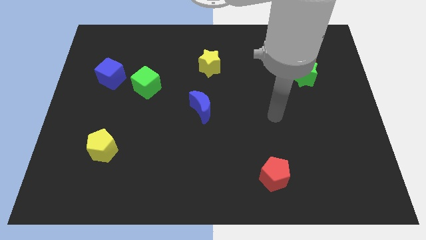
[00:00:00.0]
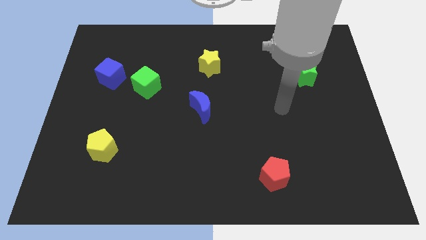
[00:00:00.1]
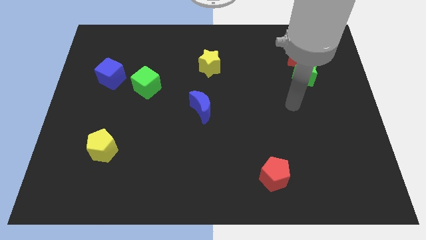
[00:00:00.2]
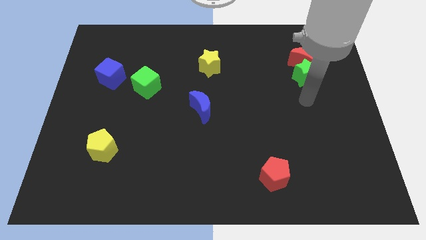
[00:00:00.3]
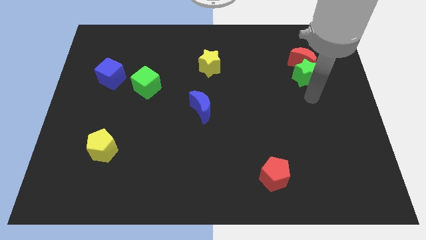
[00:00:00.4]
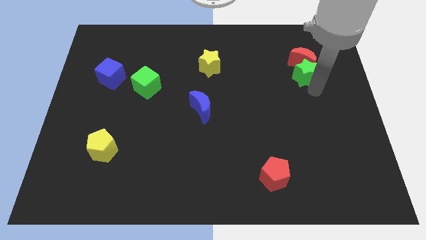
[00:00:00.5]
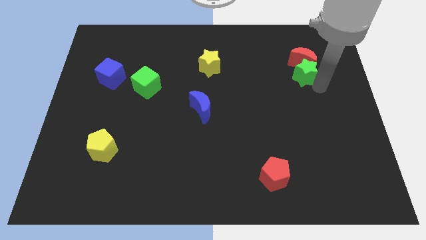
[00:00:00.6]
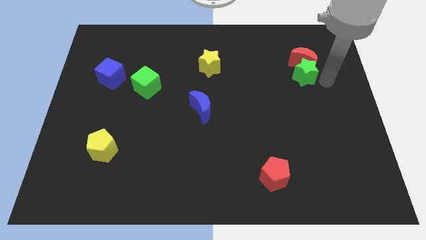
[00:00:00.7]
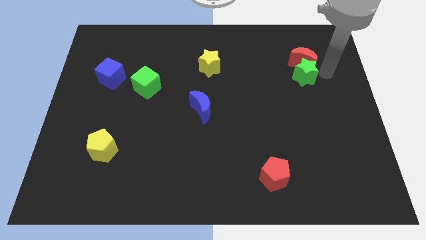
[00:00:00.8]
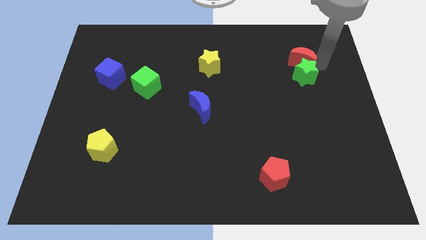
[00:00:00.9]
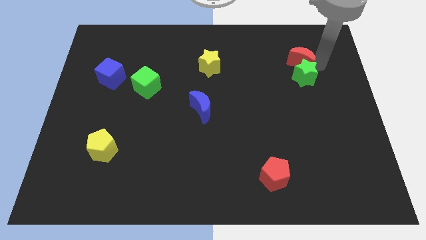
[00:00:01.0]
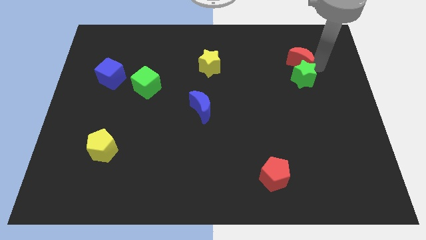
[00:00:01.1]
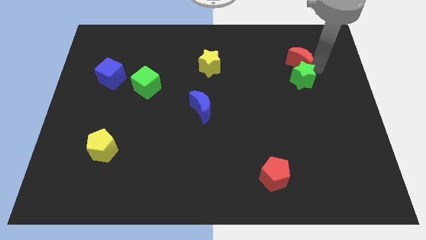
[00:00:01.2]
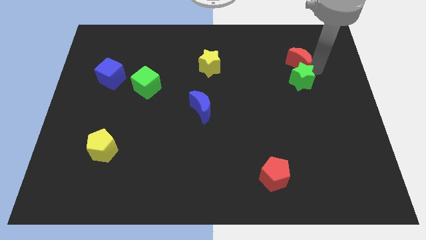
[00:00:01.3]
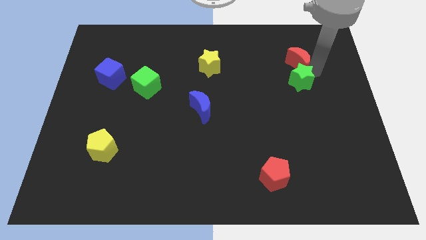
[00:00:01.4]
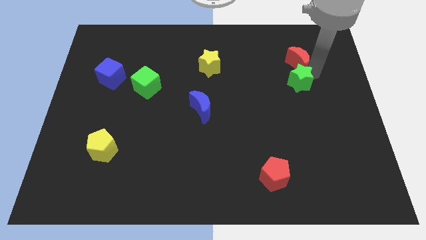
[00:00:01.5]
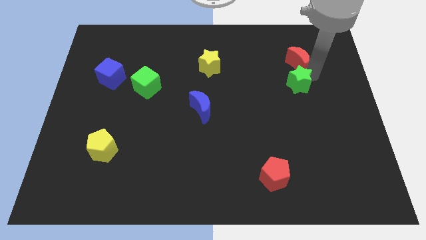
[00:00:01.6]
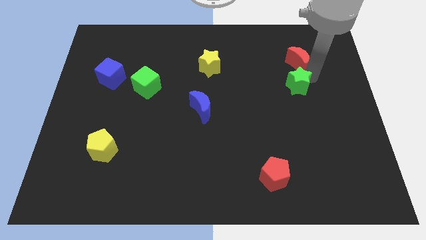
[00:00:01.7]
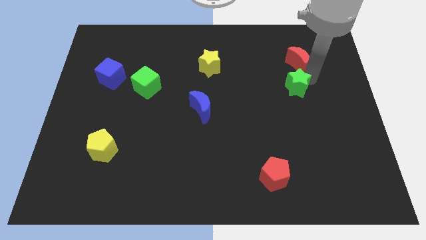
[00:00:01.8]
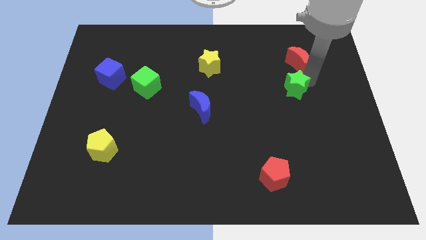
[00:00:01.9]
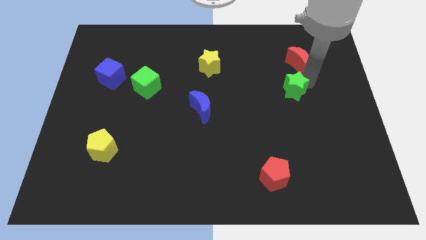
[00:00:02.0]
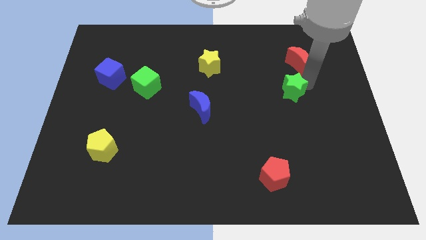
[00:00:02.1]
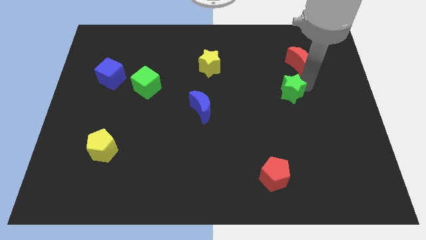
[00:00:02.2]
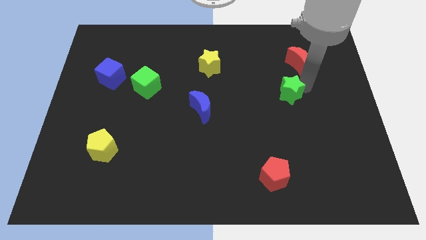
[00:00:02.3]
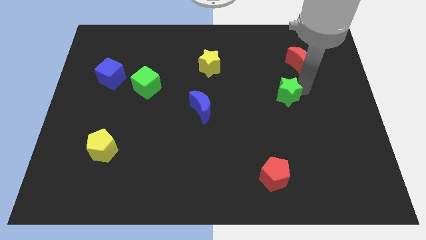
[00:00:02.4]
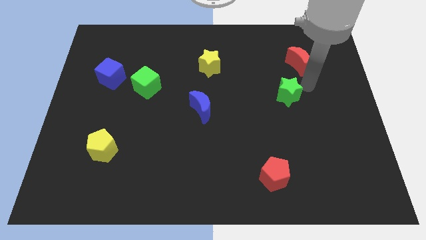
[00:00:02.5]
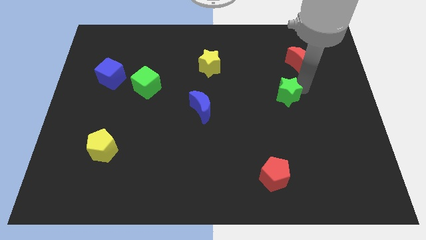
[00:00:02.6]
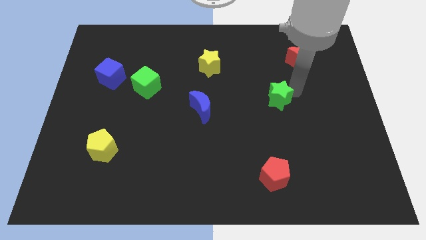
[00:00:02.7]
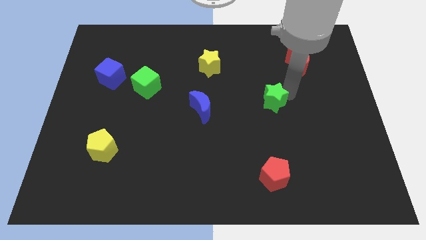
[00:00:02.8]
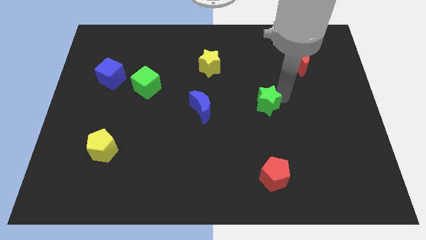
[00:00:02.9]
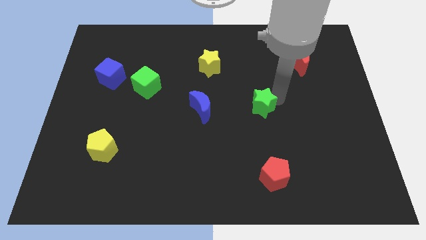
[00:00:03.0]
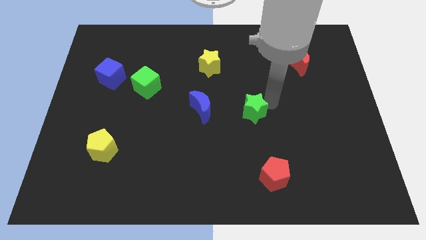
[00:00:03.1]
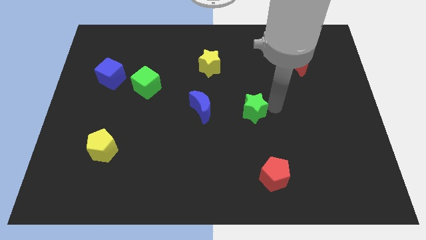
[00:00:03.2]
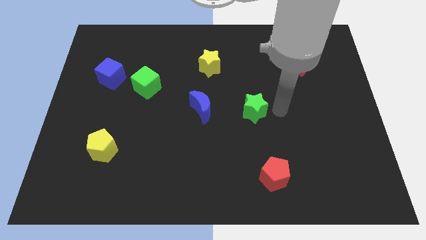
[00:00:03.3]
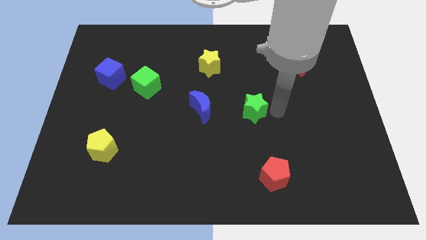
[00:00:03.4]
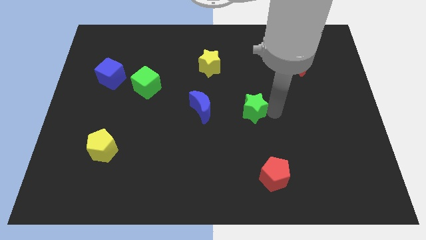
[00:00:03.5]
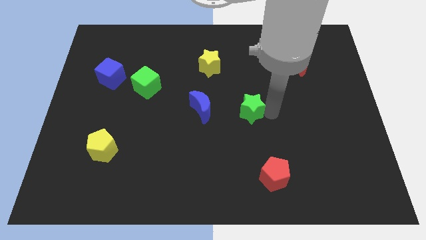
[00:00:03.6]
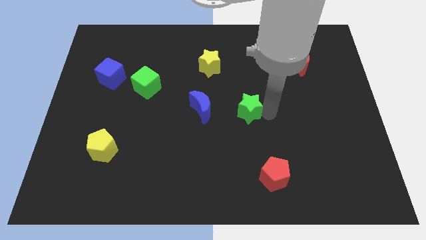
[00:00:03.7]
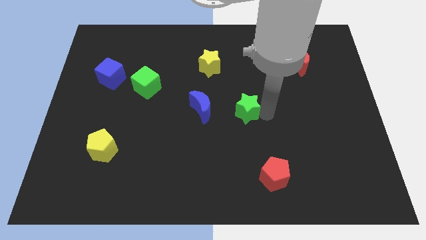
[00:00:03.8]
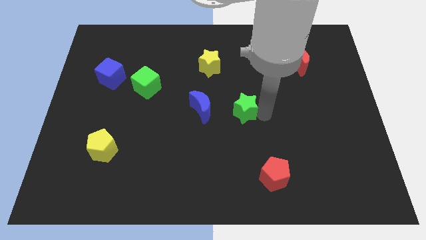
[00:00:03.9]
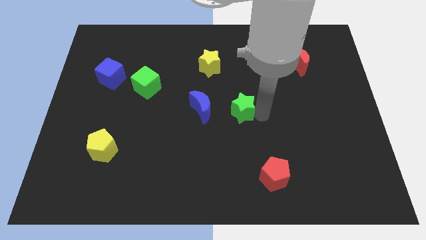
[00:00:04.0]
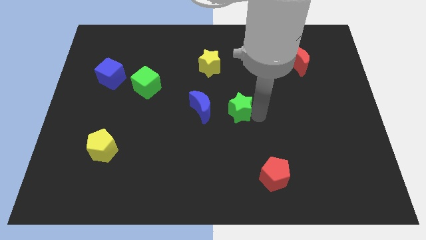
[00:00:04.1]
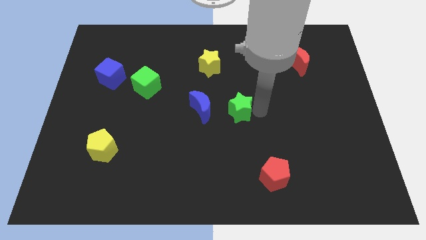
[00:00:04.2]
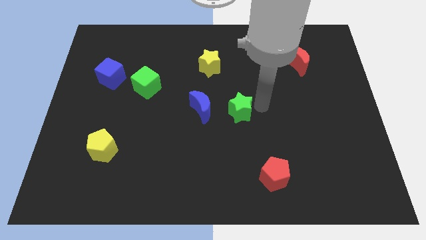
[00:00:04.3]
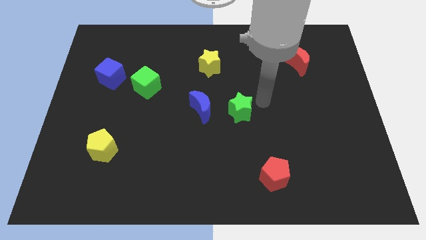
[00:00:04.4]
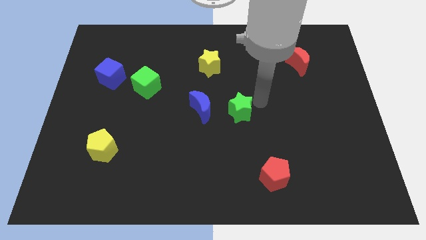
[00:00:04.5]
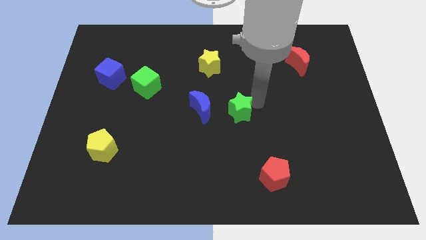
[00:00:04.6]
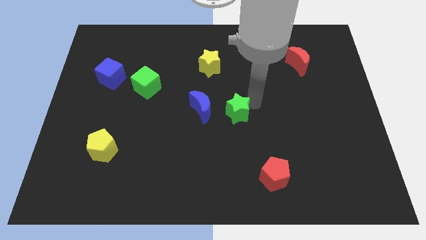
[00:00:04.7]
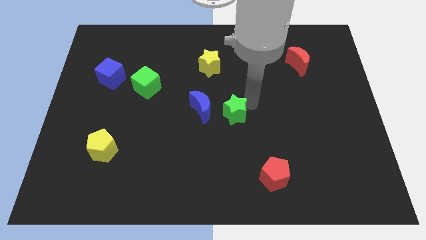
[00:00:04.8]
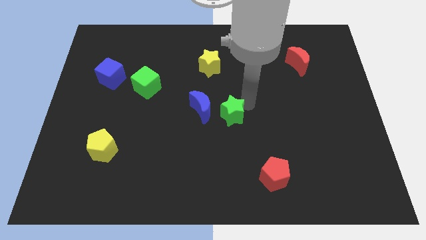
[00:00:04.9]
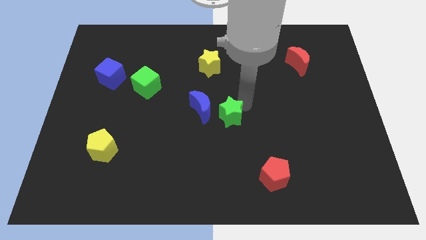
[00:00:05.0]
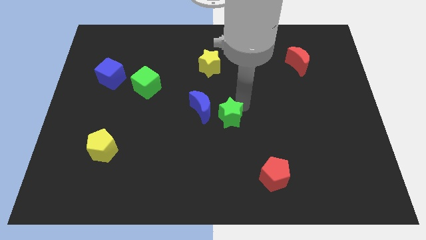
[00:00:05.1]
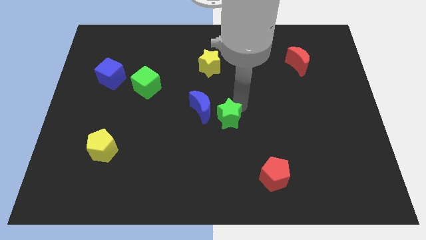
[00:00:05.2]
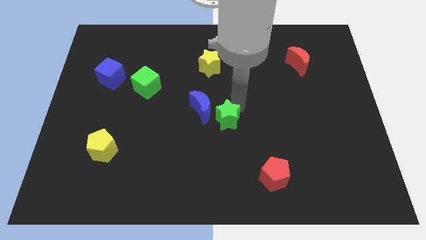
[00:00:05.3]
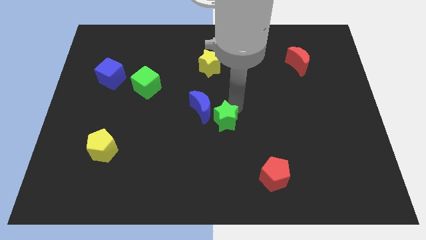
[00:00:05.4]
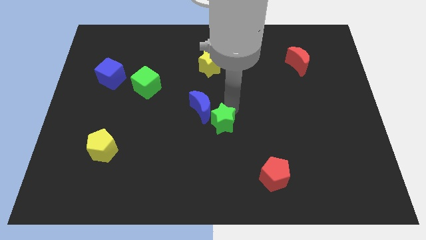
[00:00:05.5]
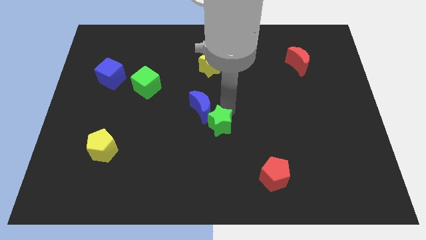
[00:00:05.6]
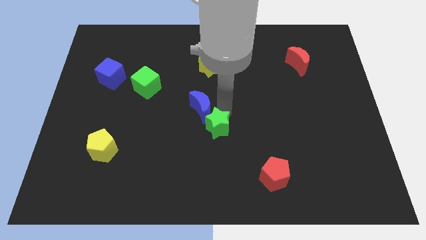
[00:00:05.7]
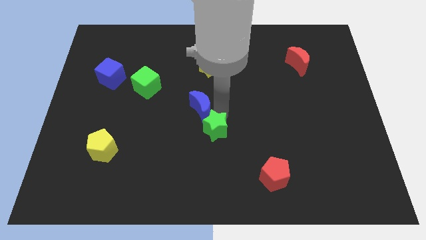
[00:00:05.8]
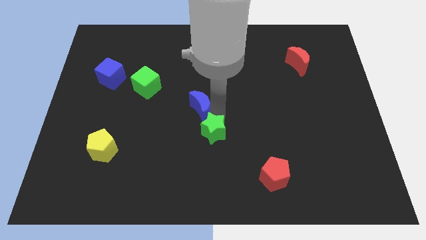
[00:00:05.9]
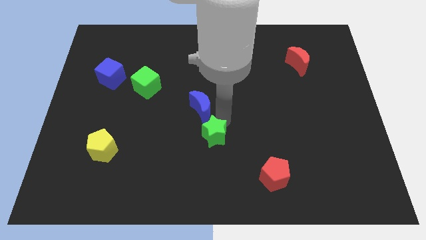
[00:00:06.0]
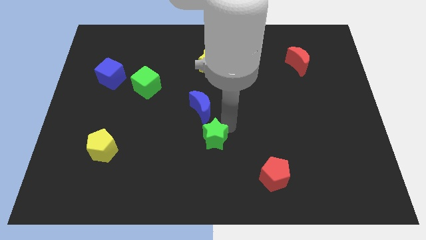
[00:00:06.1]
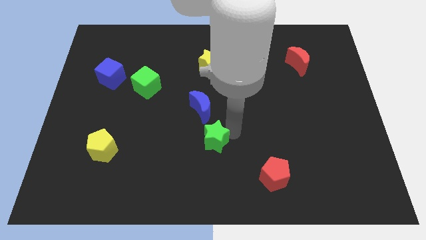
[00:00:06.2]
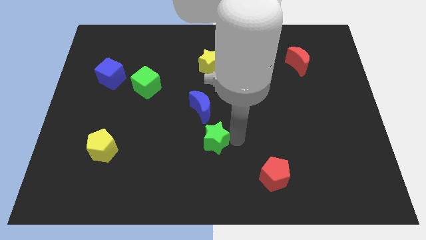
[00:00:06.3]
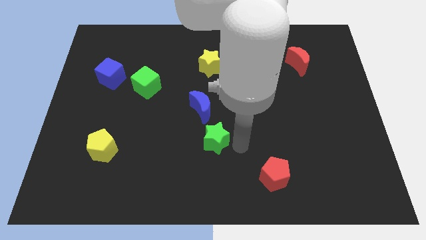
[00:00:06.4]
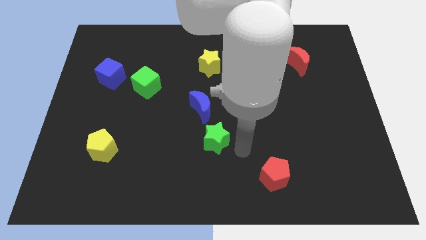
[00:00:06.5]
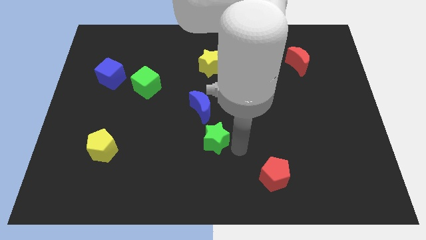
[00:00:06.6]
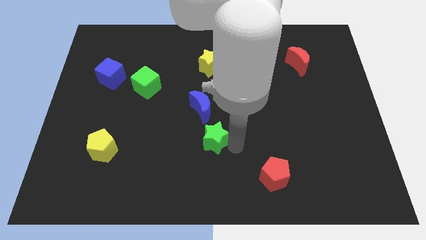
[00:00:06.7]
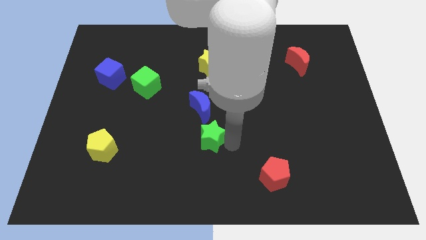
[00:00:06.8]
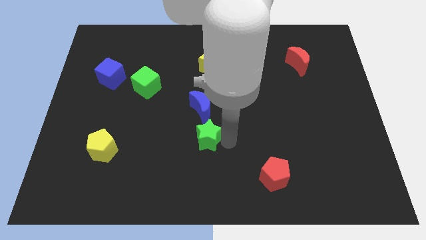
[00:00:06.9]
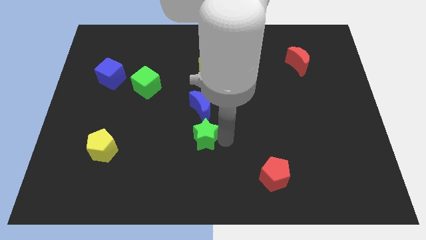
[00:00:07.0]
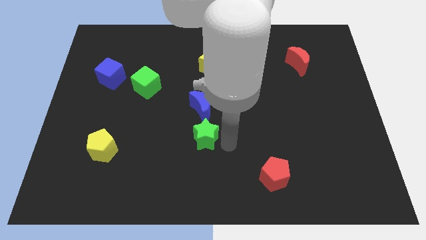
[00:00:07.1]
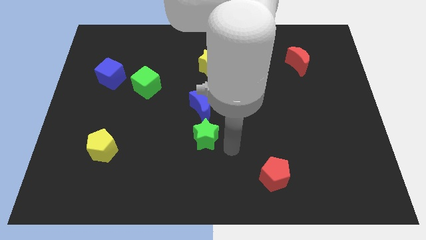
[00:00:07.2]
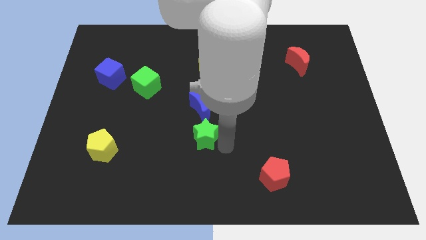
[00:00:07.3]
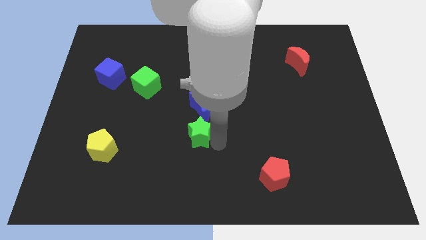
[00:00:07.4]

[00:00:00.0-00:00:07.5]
move the green star to the bottom left side of the blue moon
